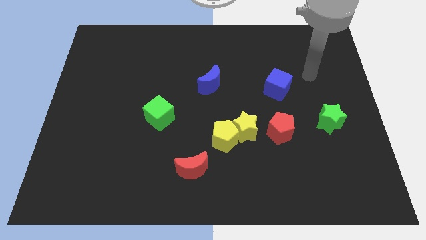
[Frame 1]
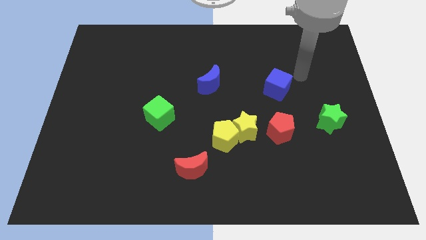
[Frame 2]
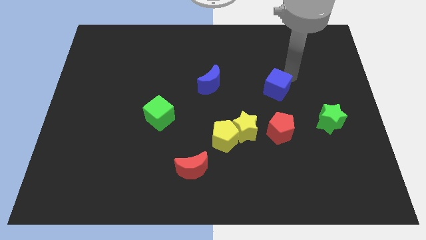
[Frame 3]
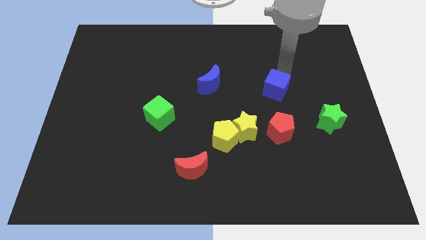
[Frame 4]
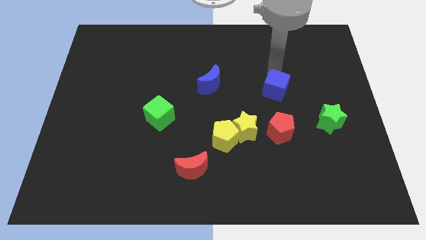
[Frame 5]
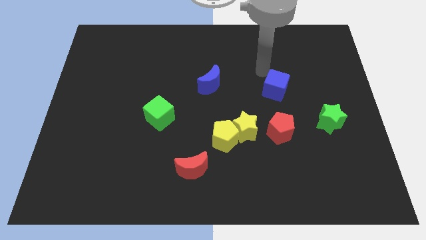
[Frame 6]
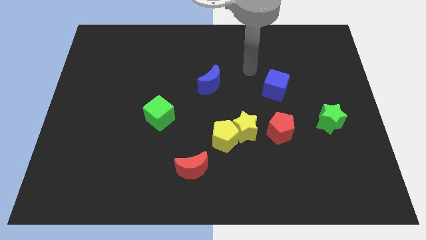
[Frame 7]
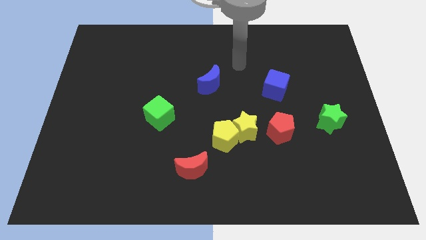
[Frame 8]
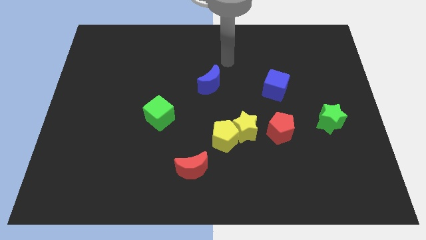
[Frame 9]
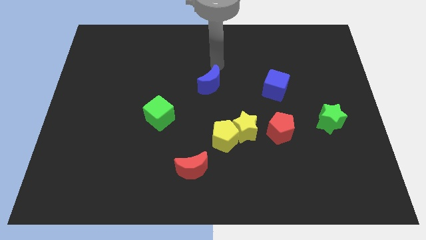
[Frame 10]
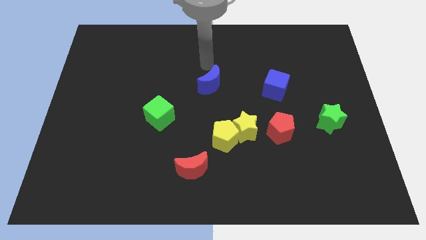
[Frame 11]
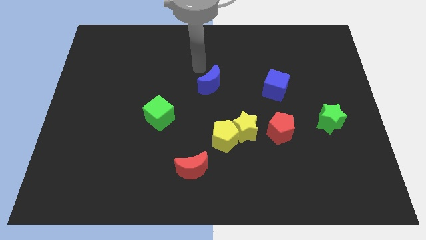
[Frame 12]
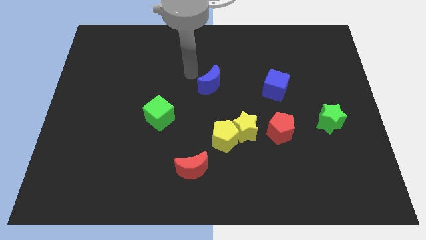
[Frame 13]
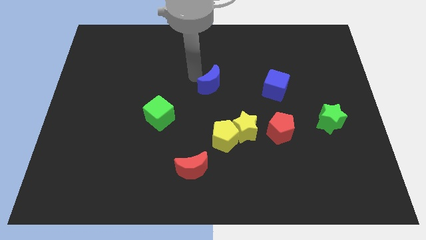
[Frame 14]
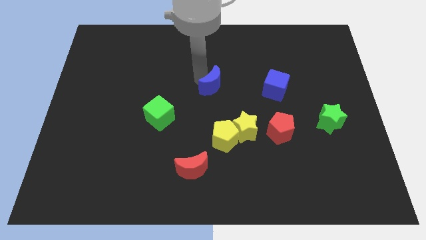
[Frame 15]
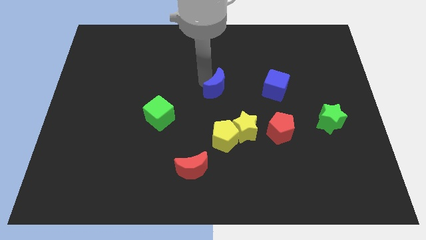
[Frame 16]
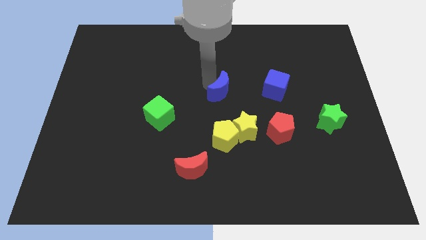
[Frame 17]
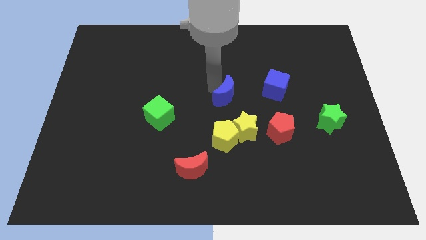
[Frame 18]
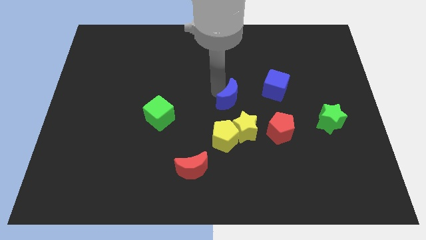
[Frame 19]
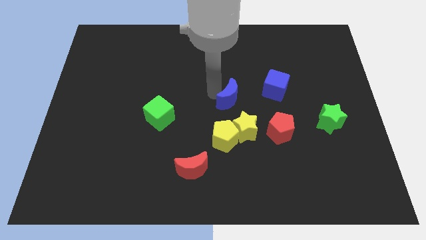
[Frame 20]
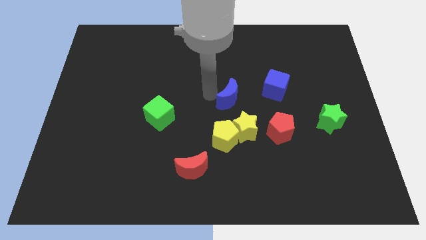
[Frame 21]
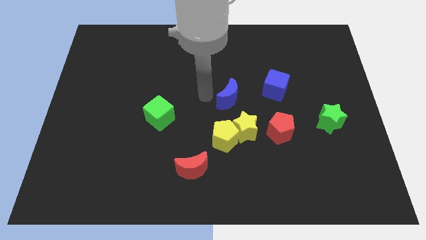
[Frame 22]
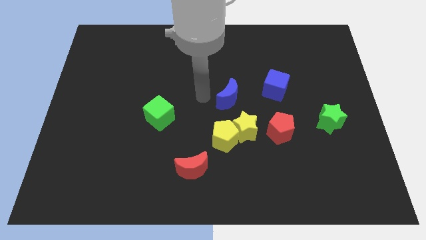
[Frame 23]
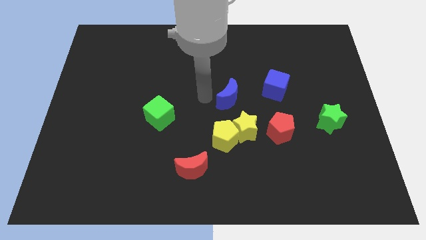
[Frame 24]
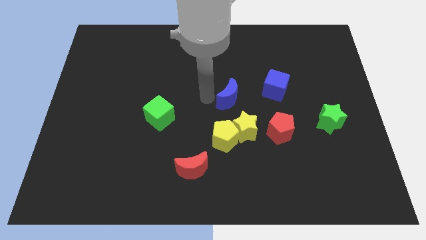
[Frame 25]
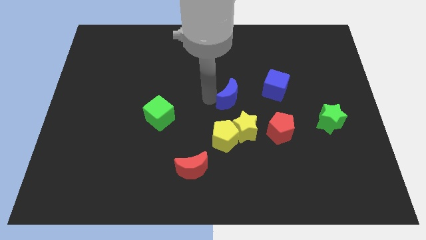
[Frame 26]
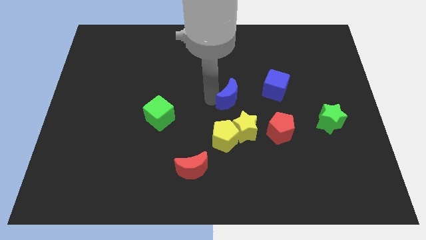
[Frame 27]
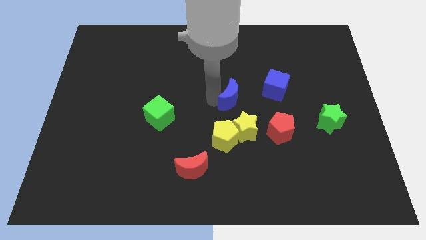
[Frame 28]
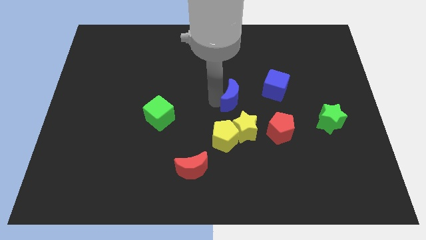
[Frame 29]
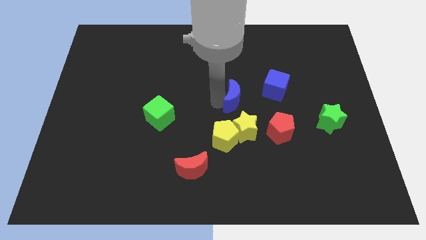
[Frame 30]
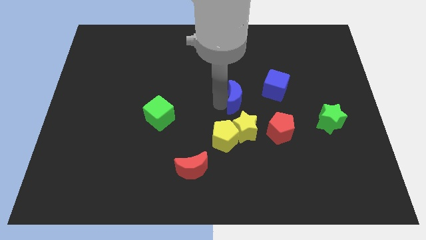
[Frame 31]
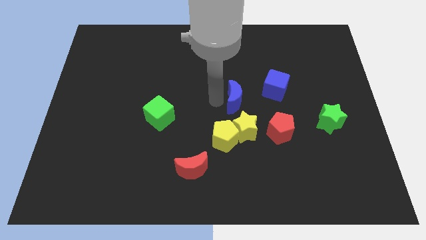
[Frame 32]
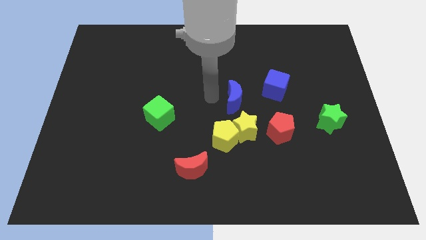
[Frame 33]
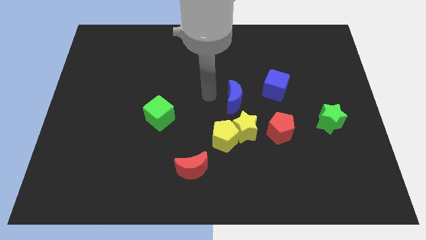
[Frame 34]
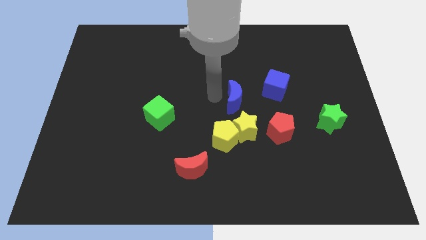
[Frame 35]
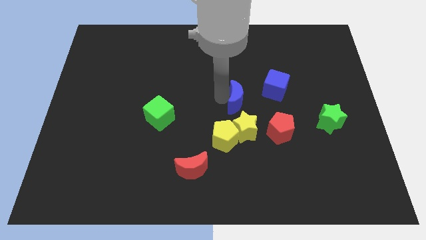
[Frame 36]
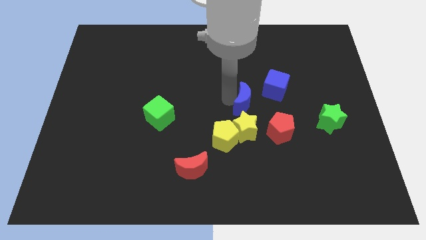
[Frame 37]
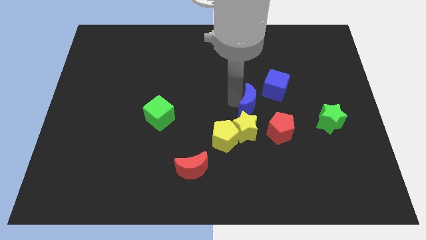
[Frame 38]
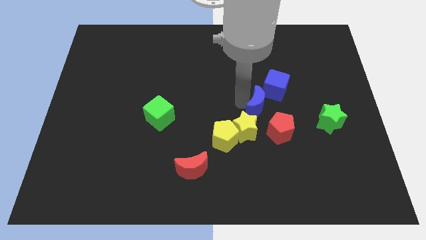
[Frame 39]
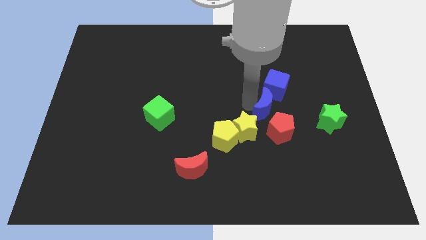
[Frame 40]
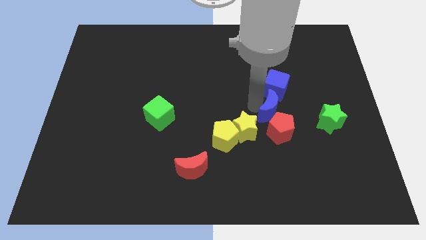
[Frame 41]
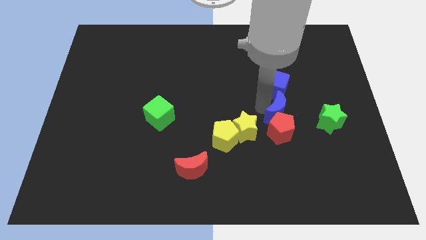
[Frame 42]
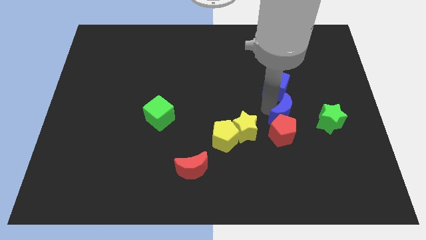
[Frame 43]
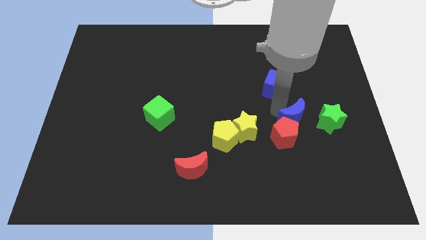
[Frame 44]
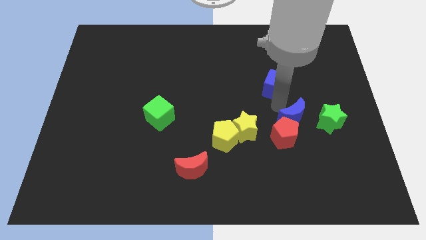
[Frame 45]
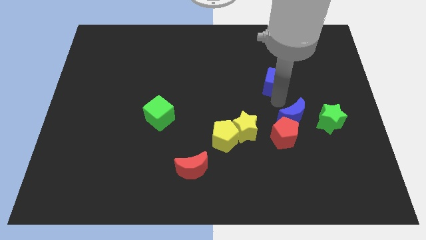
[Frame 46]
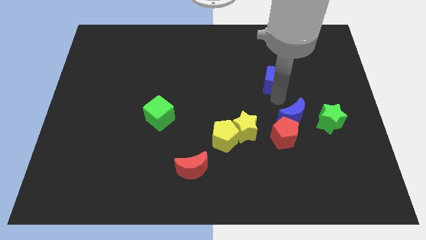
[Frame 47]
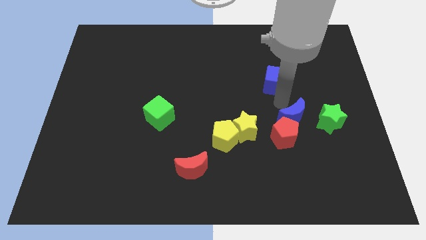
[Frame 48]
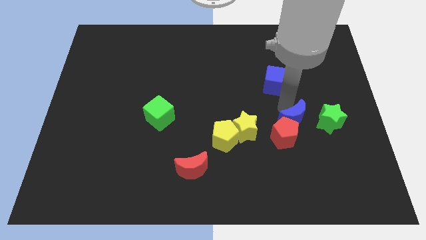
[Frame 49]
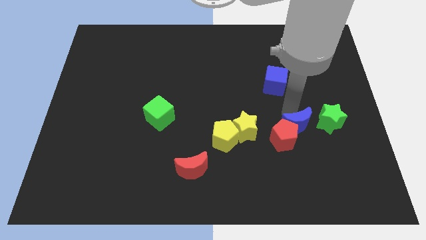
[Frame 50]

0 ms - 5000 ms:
slide the blue moon to the bottom left side of the green star

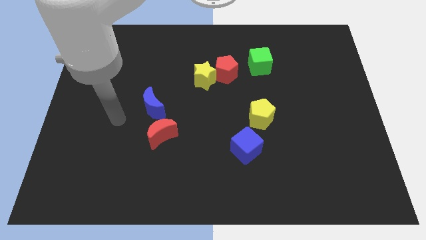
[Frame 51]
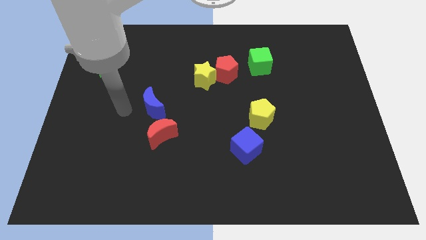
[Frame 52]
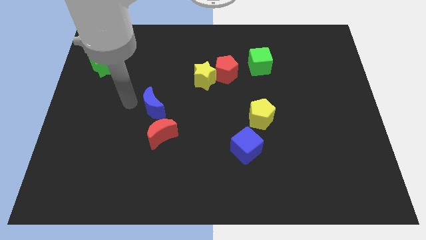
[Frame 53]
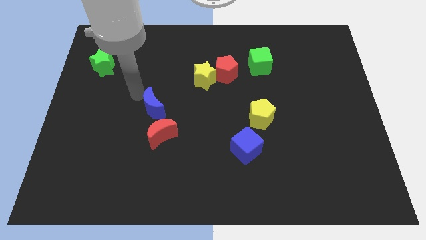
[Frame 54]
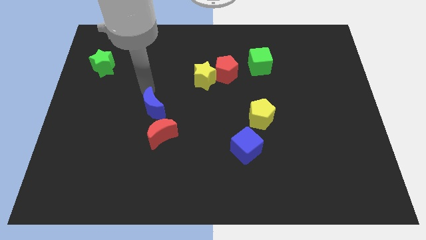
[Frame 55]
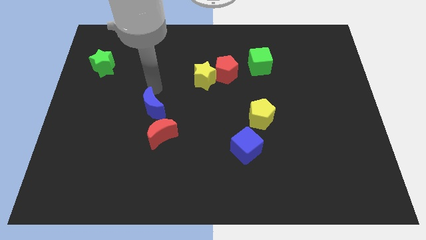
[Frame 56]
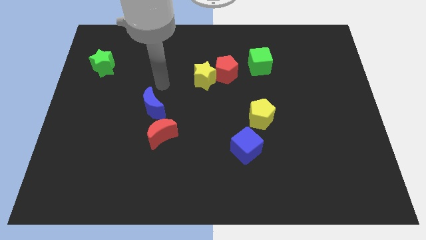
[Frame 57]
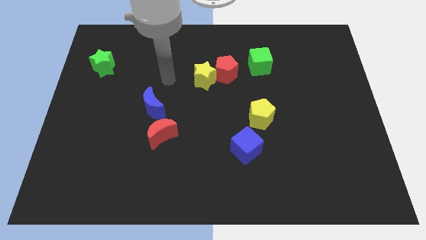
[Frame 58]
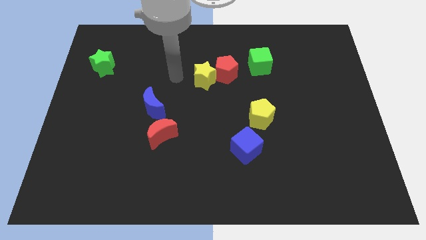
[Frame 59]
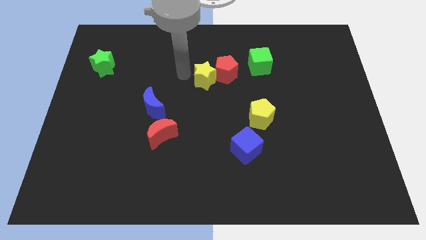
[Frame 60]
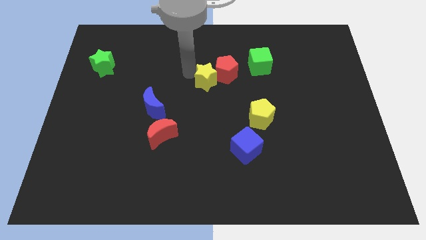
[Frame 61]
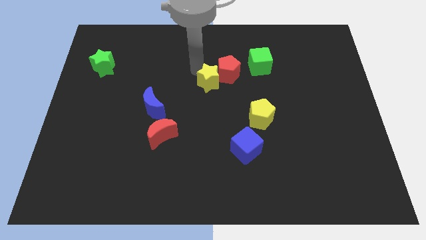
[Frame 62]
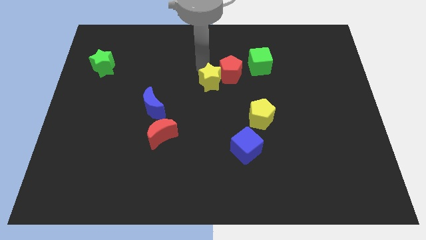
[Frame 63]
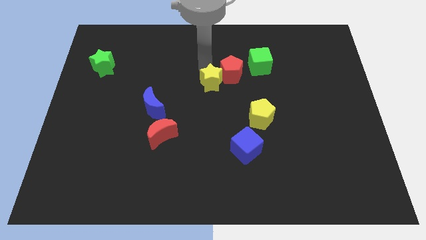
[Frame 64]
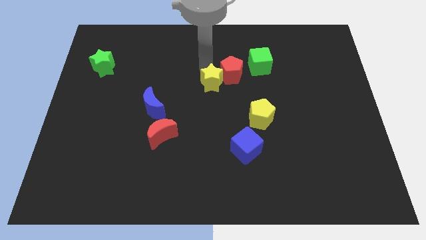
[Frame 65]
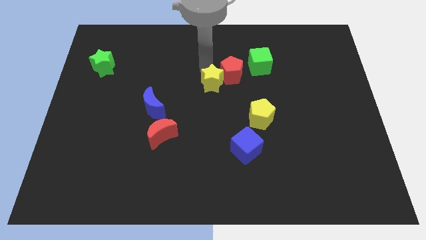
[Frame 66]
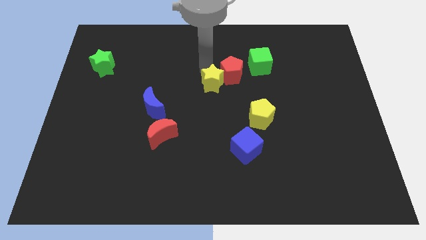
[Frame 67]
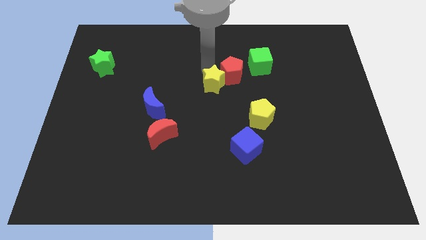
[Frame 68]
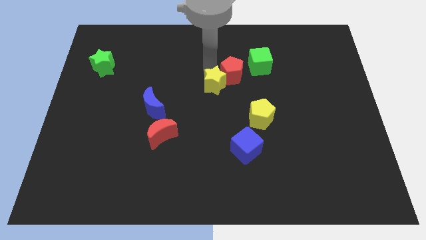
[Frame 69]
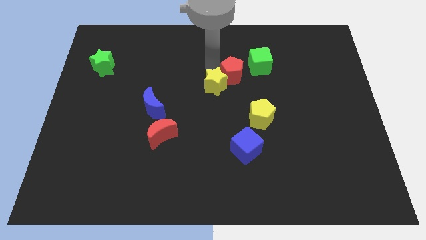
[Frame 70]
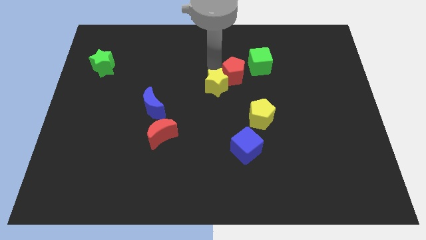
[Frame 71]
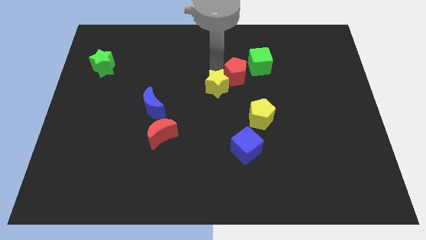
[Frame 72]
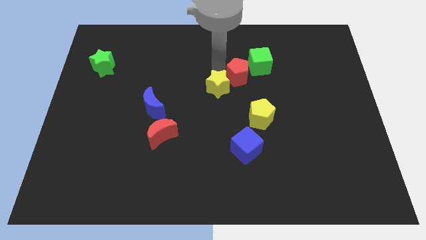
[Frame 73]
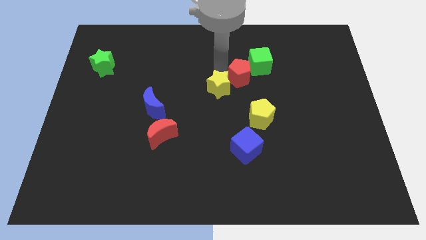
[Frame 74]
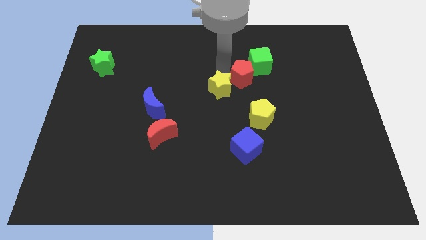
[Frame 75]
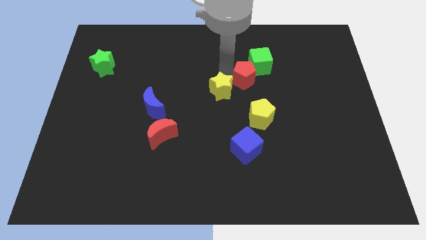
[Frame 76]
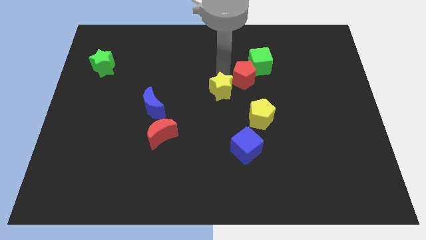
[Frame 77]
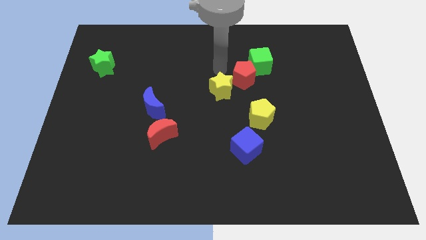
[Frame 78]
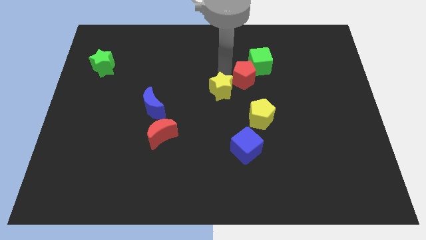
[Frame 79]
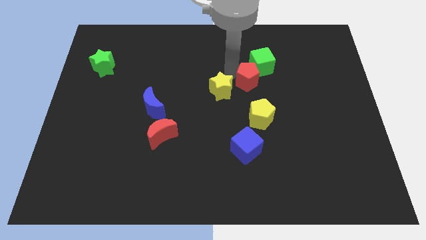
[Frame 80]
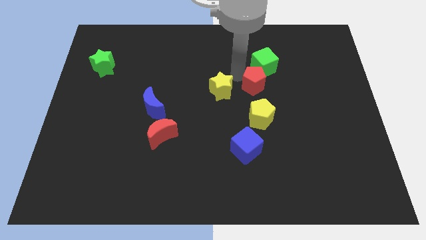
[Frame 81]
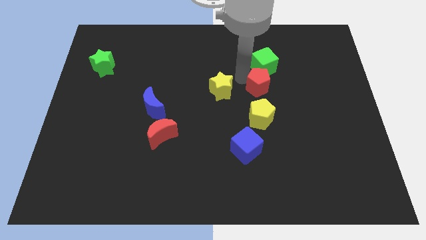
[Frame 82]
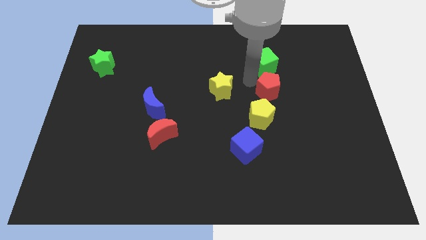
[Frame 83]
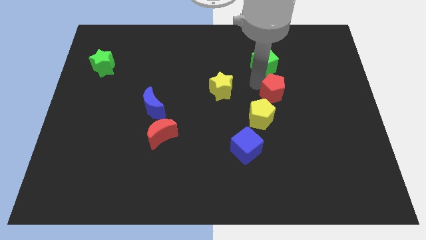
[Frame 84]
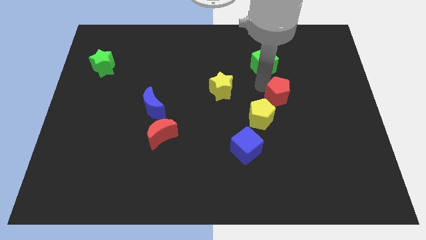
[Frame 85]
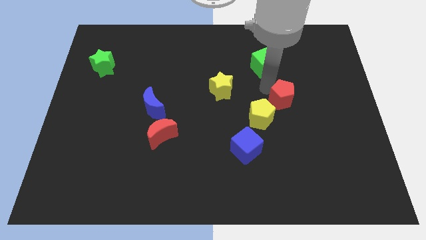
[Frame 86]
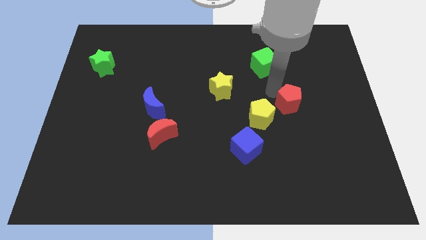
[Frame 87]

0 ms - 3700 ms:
slide the red pentagon just right of the yellow pentagon
